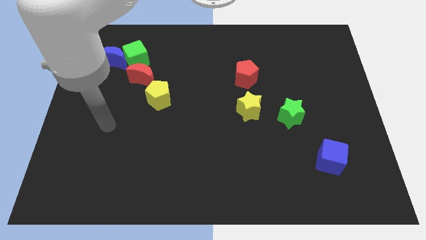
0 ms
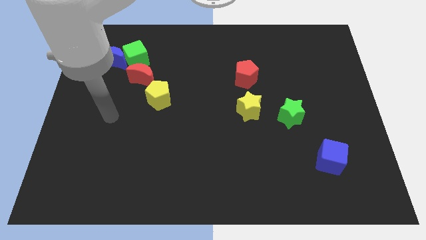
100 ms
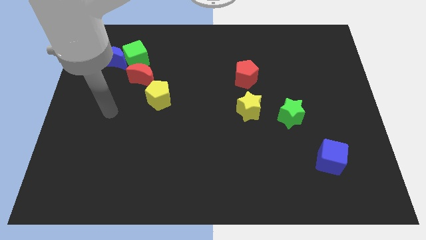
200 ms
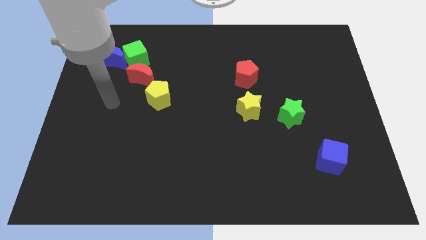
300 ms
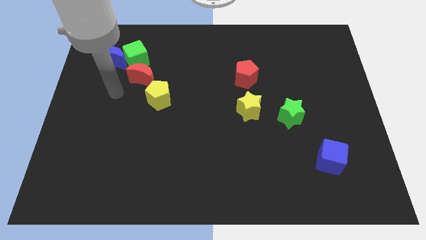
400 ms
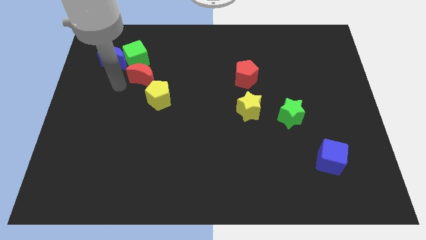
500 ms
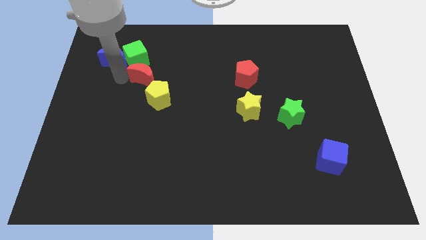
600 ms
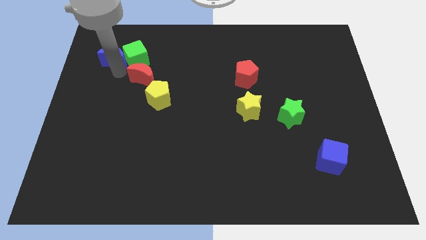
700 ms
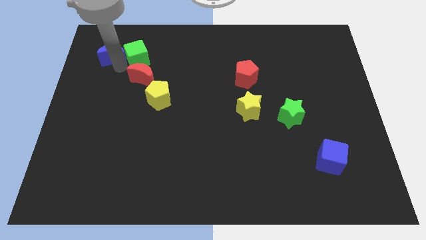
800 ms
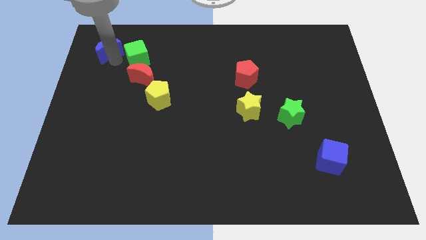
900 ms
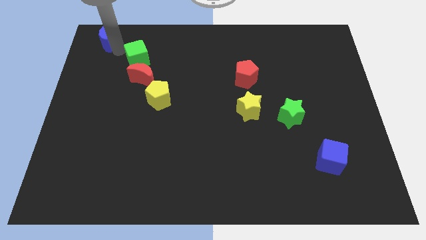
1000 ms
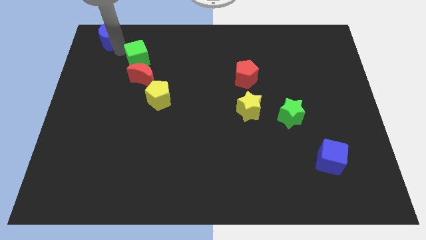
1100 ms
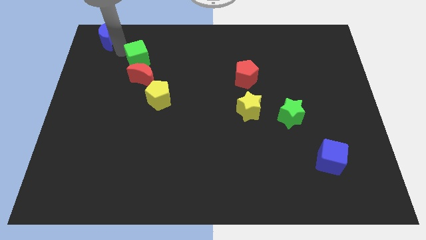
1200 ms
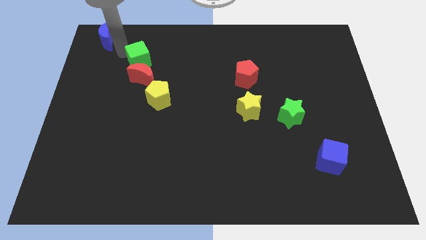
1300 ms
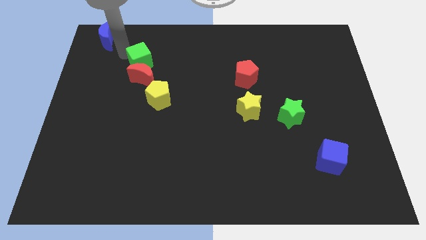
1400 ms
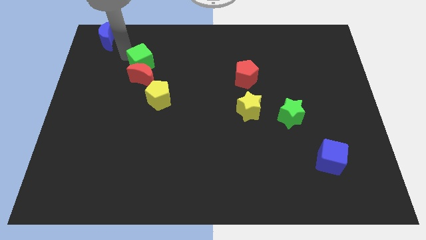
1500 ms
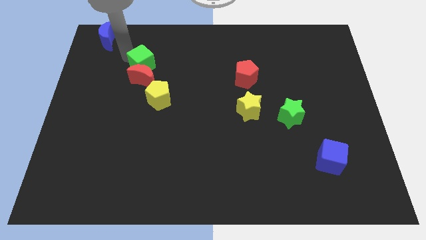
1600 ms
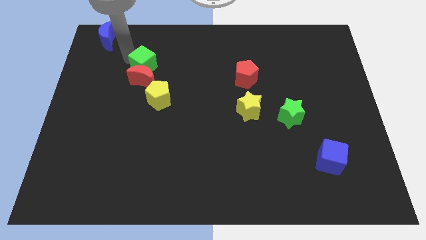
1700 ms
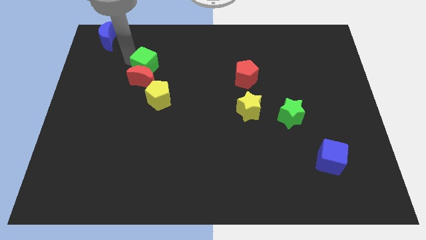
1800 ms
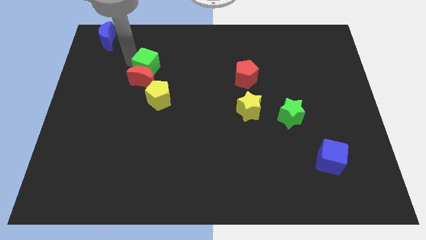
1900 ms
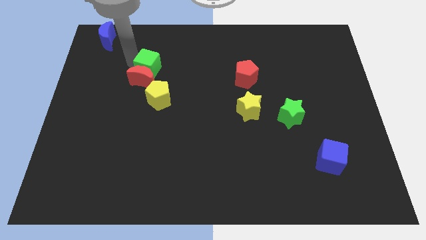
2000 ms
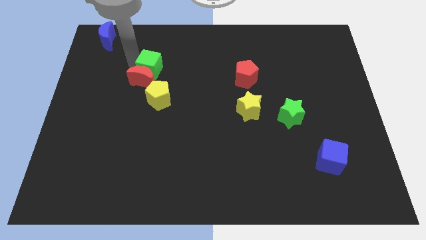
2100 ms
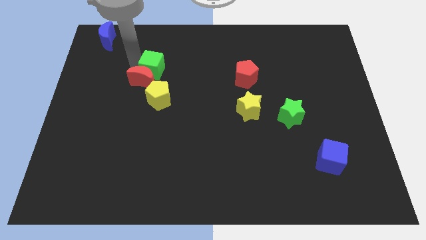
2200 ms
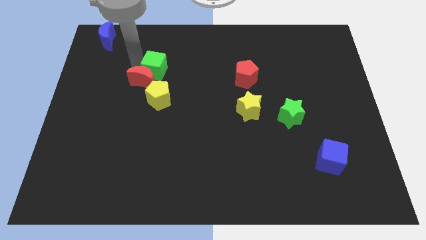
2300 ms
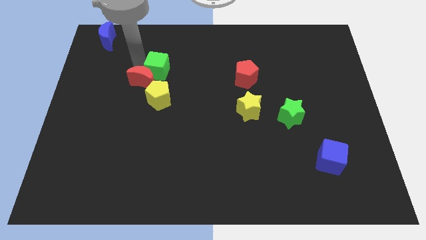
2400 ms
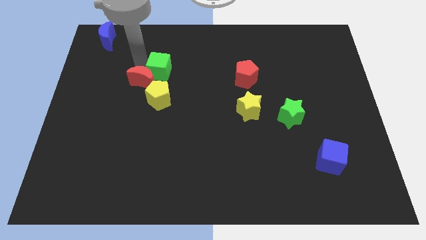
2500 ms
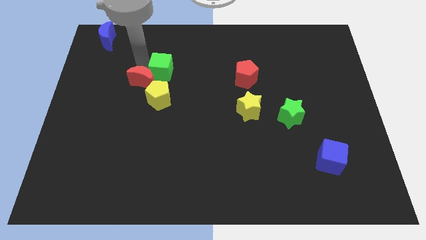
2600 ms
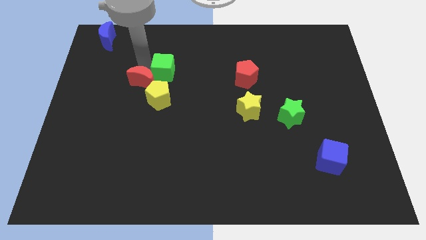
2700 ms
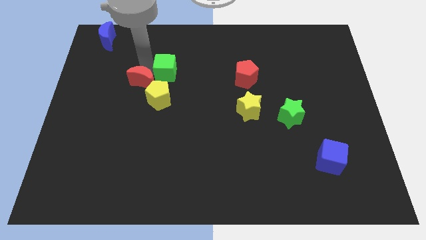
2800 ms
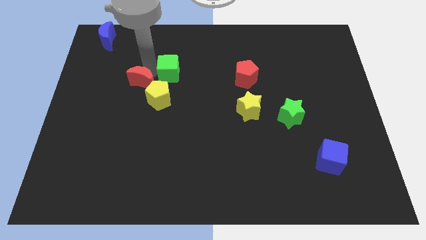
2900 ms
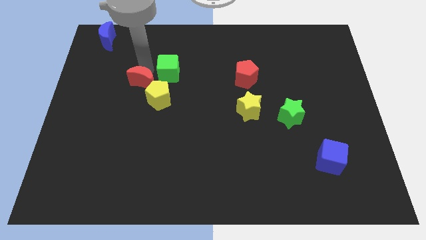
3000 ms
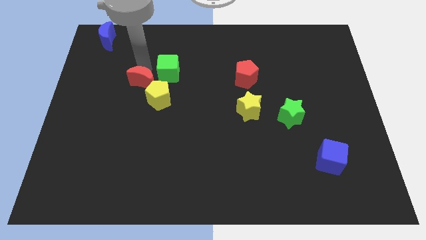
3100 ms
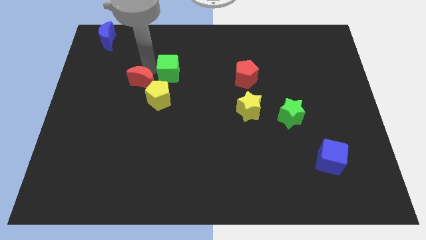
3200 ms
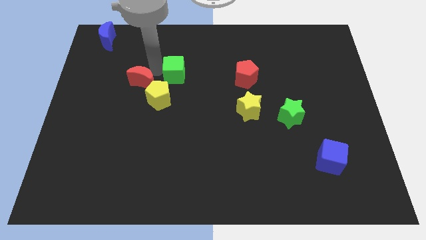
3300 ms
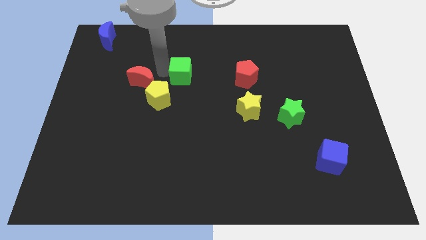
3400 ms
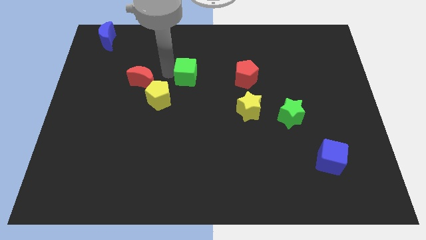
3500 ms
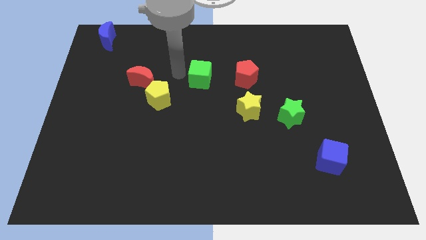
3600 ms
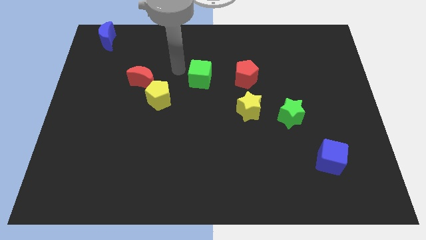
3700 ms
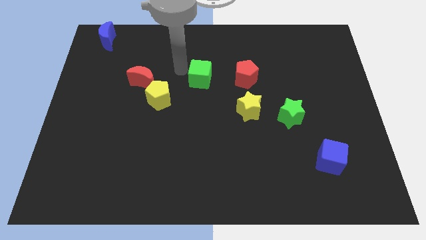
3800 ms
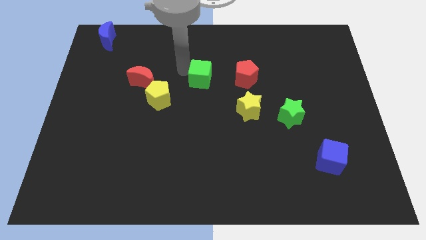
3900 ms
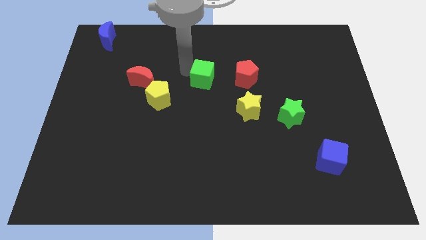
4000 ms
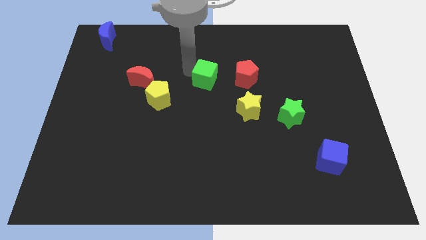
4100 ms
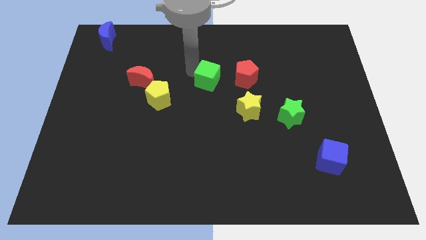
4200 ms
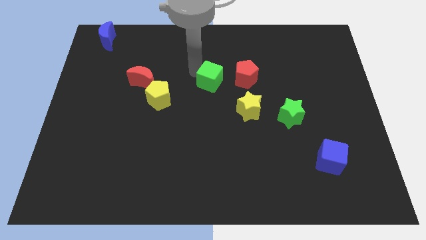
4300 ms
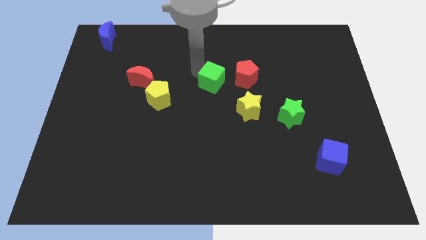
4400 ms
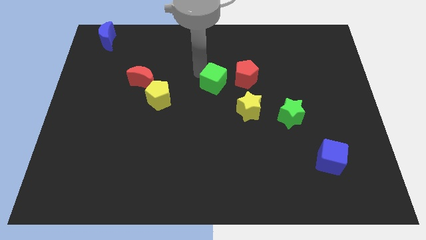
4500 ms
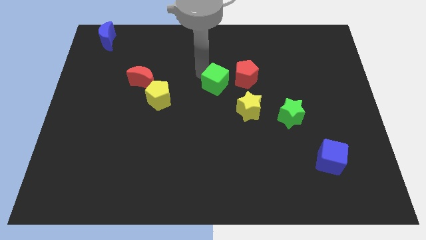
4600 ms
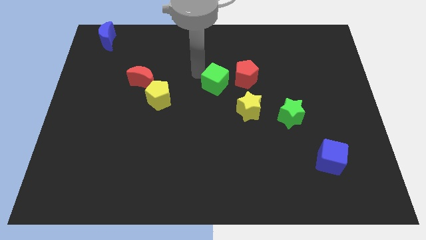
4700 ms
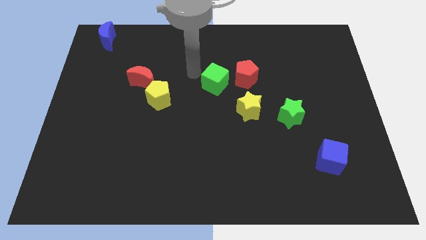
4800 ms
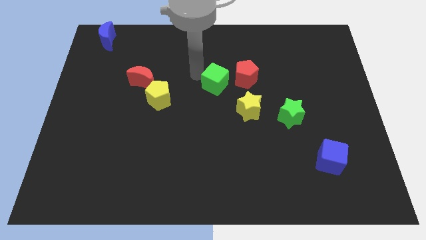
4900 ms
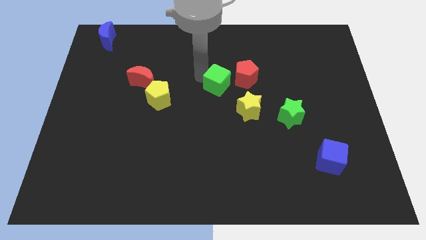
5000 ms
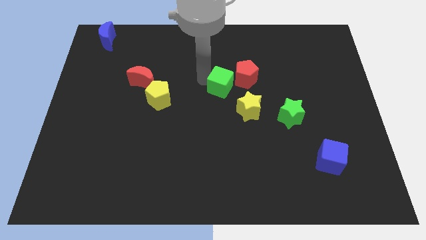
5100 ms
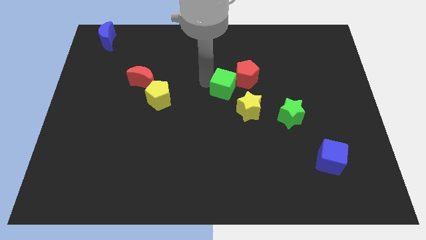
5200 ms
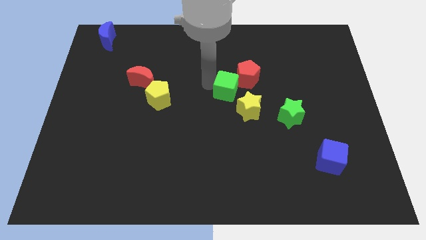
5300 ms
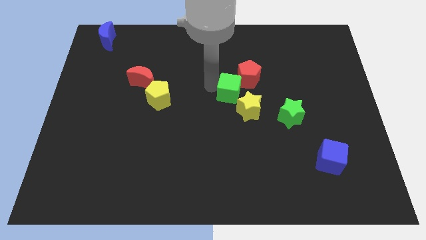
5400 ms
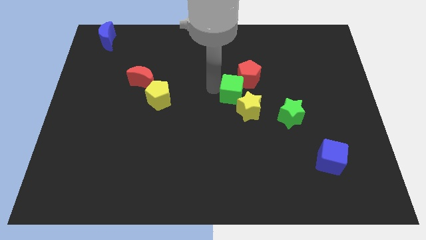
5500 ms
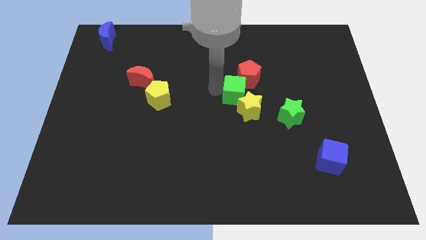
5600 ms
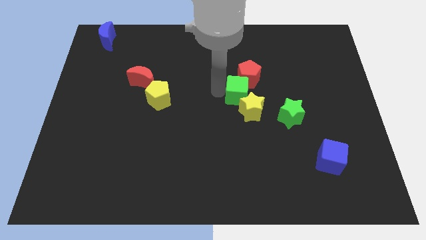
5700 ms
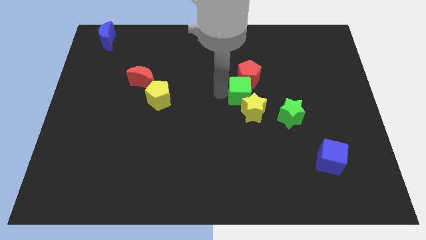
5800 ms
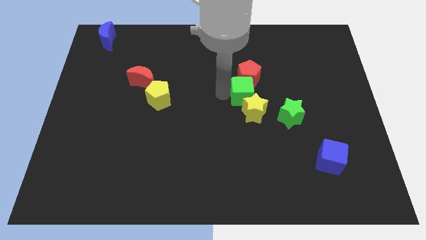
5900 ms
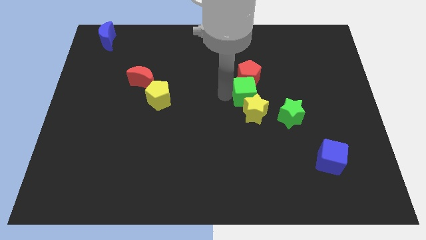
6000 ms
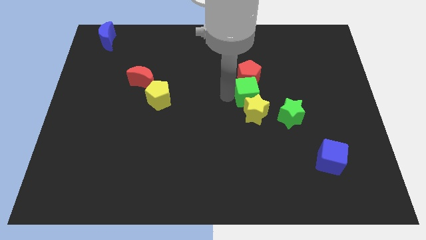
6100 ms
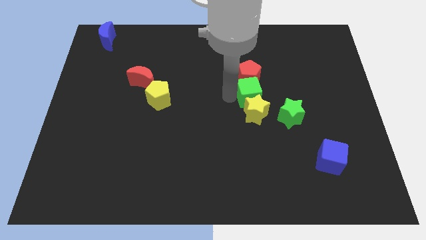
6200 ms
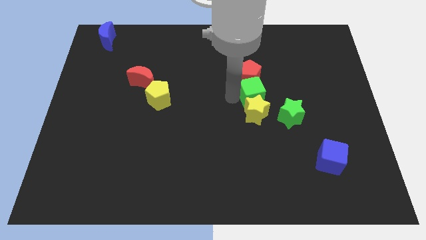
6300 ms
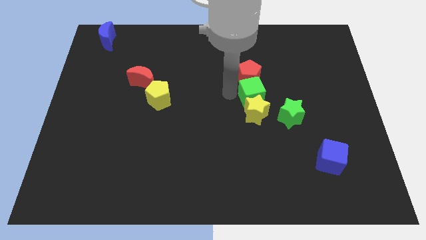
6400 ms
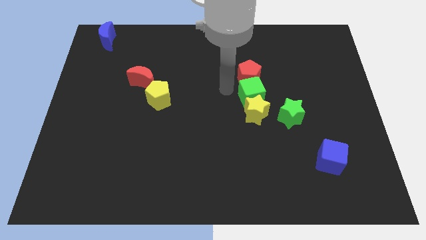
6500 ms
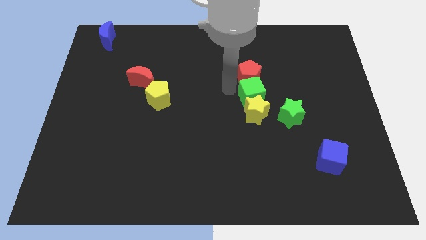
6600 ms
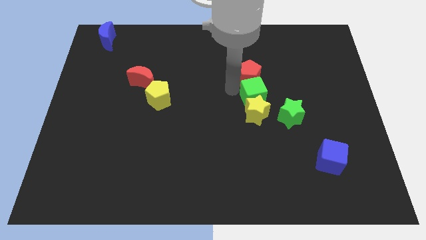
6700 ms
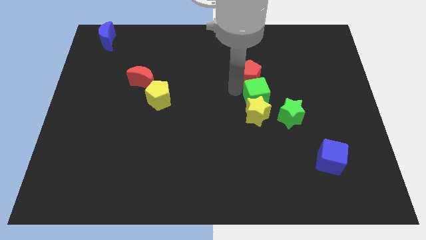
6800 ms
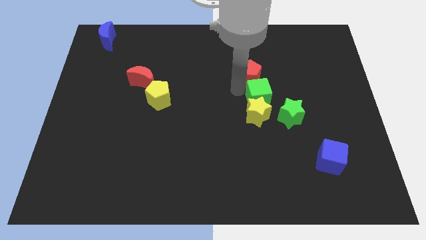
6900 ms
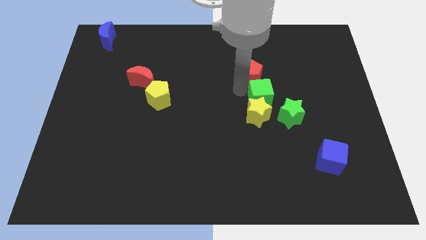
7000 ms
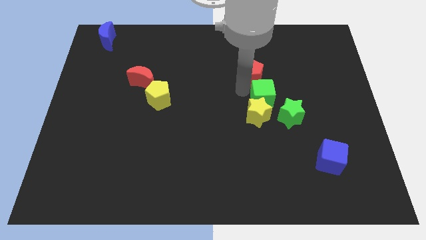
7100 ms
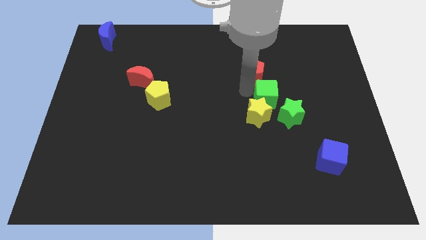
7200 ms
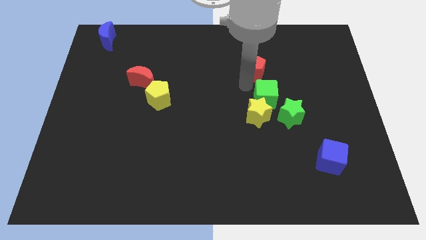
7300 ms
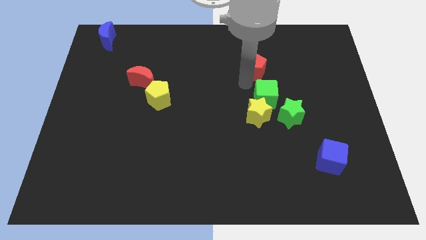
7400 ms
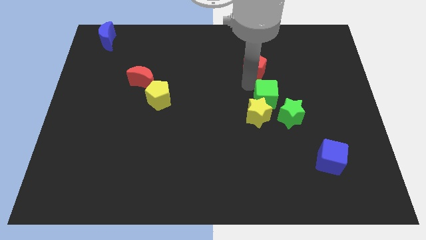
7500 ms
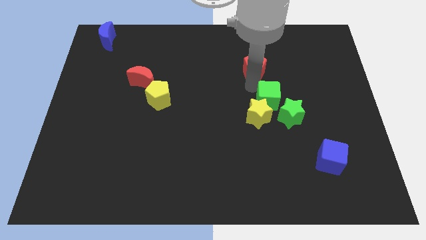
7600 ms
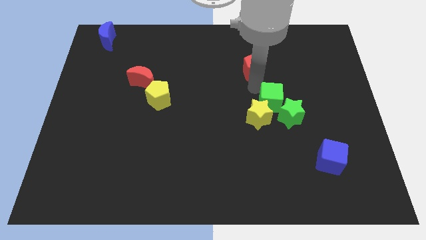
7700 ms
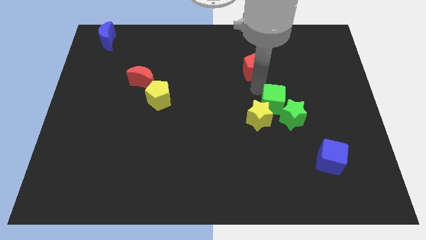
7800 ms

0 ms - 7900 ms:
move the green cube towards the green star
